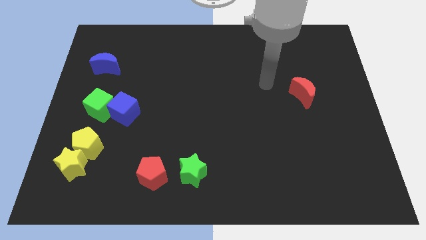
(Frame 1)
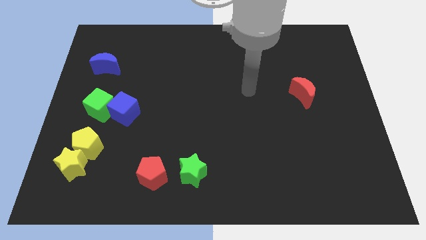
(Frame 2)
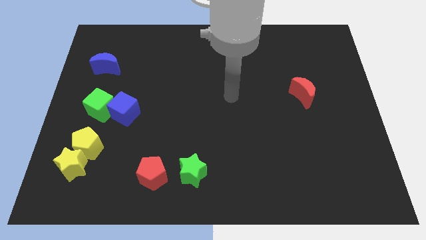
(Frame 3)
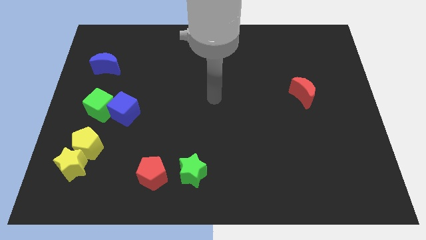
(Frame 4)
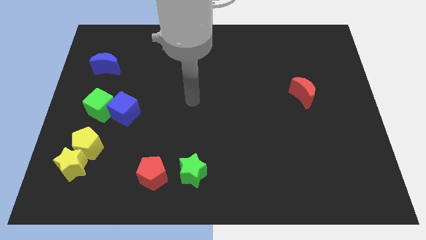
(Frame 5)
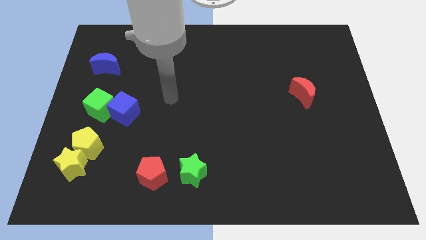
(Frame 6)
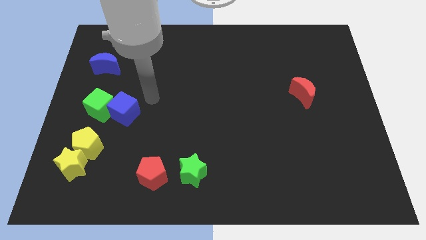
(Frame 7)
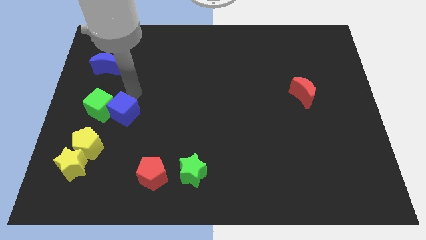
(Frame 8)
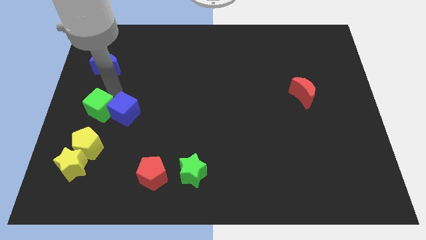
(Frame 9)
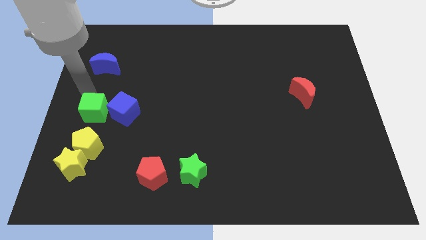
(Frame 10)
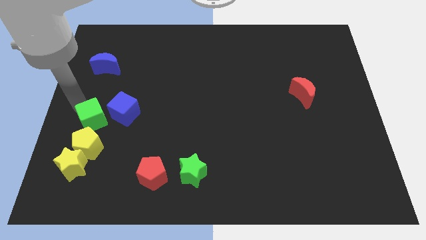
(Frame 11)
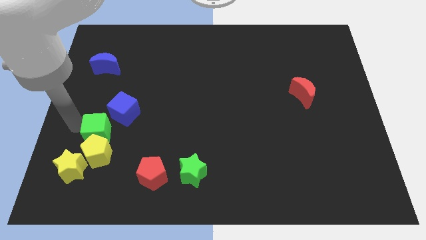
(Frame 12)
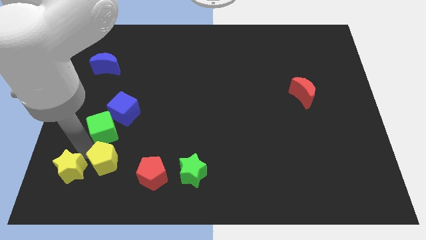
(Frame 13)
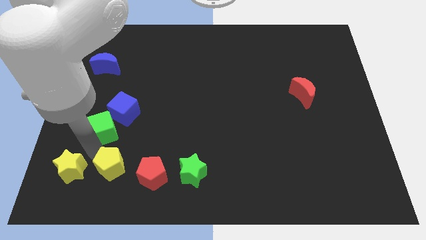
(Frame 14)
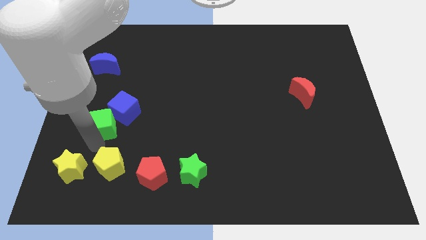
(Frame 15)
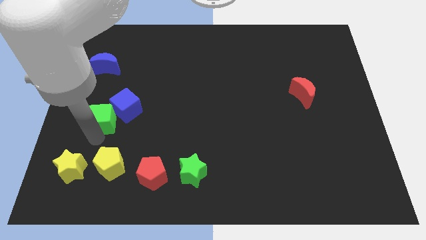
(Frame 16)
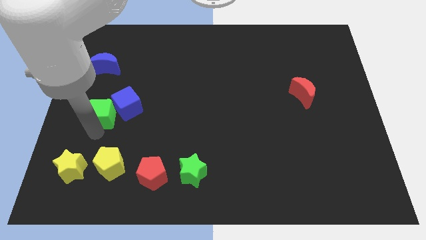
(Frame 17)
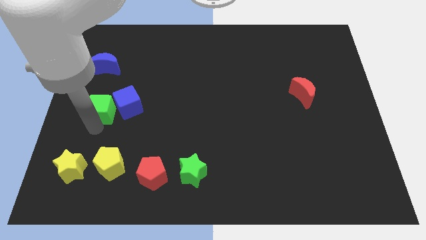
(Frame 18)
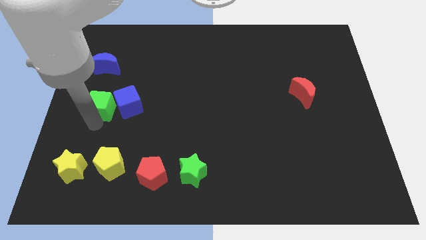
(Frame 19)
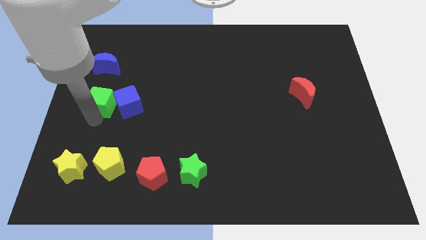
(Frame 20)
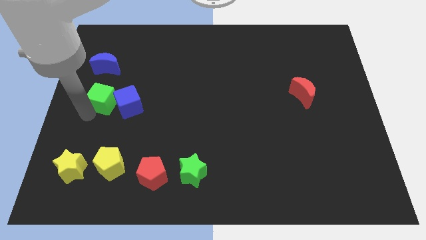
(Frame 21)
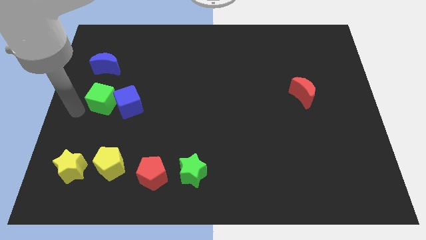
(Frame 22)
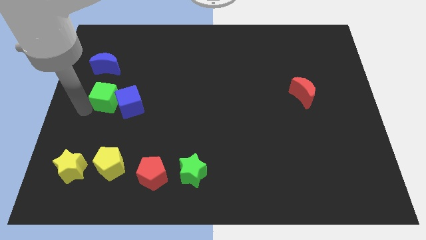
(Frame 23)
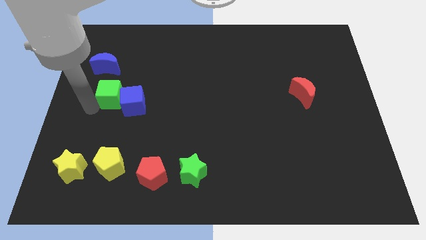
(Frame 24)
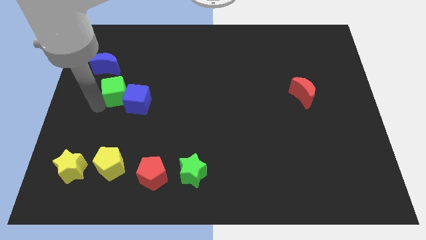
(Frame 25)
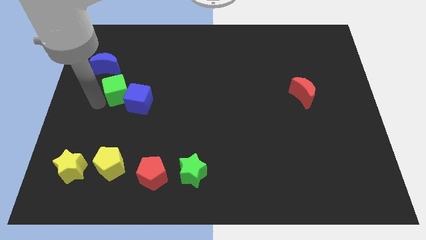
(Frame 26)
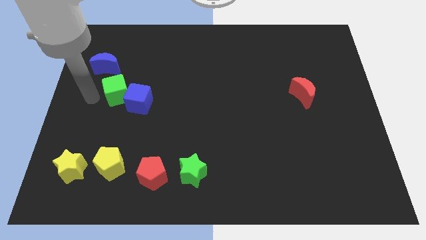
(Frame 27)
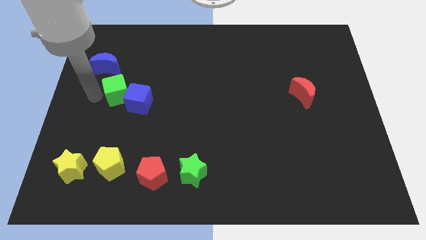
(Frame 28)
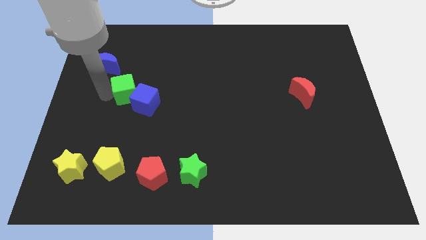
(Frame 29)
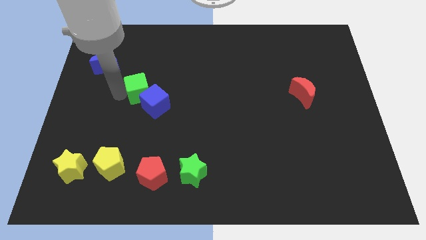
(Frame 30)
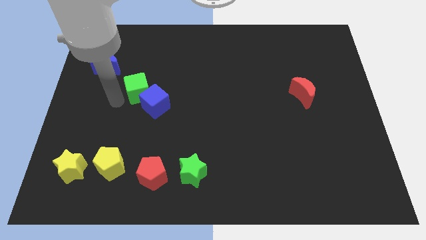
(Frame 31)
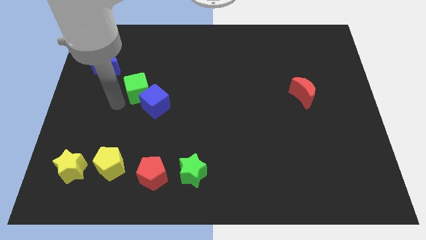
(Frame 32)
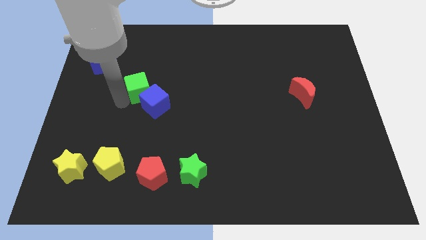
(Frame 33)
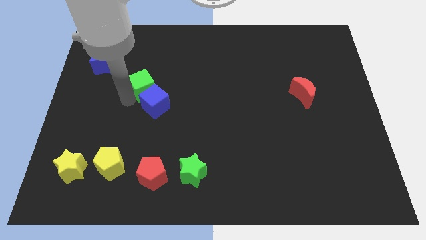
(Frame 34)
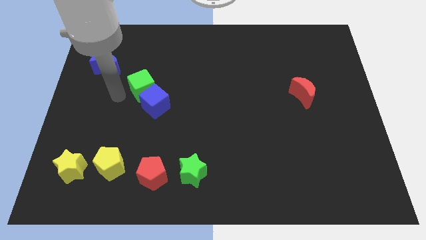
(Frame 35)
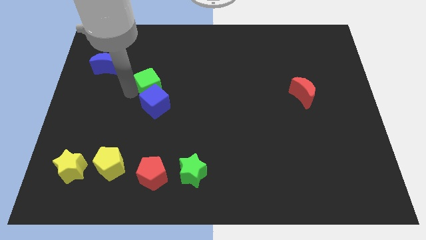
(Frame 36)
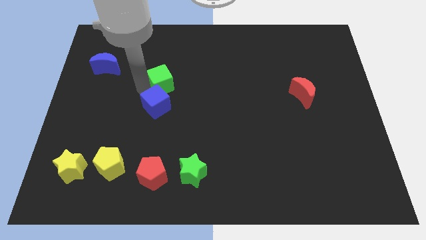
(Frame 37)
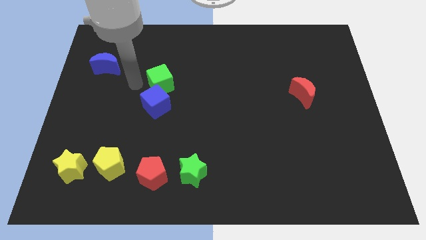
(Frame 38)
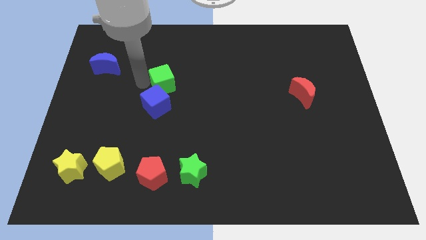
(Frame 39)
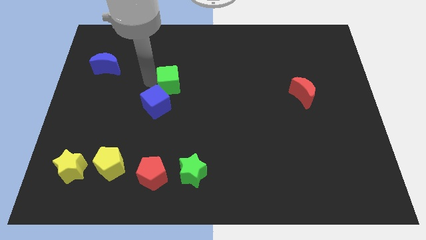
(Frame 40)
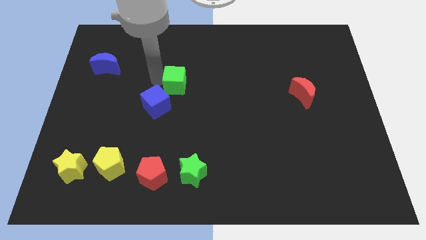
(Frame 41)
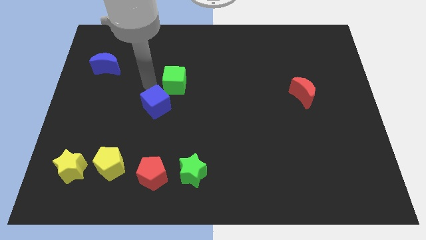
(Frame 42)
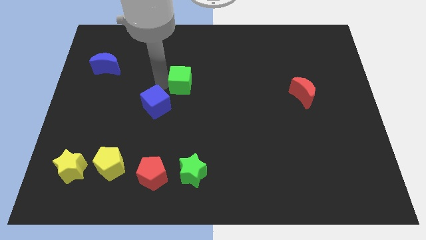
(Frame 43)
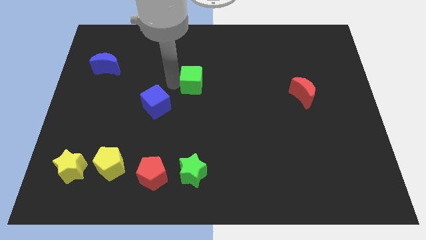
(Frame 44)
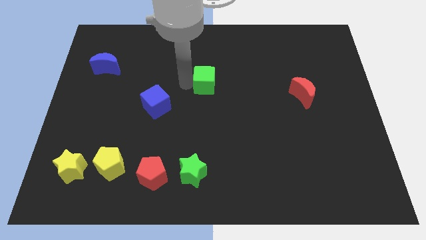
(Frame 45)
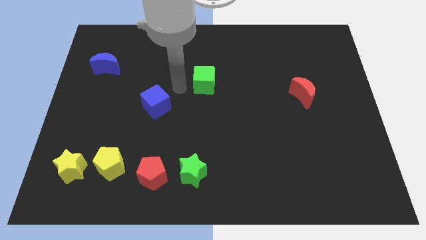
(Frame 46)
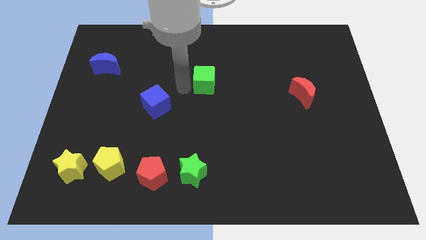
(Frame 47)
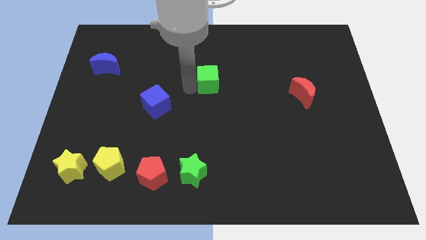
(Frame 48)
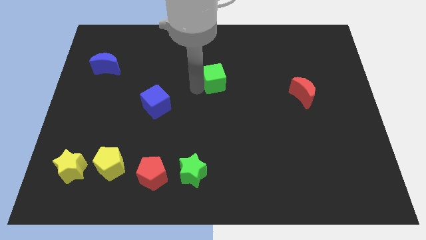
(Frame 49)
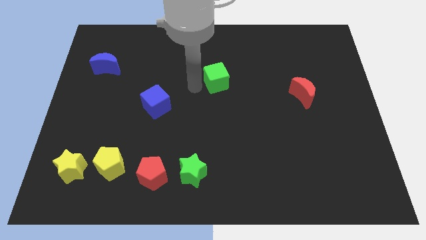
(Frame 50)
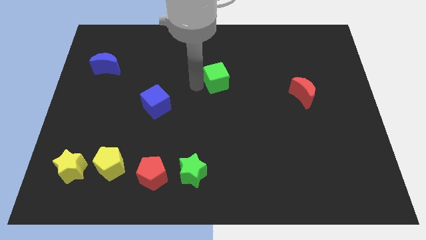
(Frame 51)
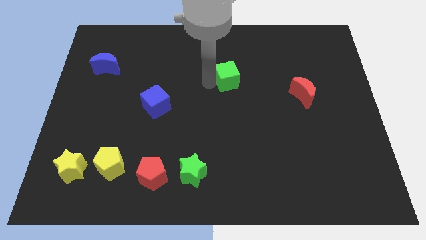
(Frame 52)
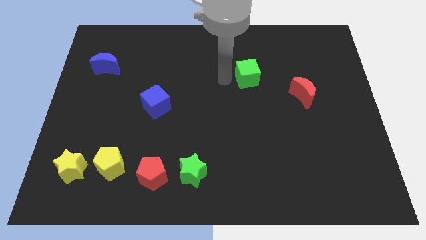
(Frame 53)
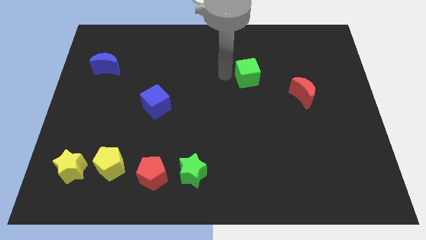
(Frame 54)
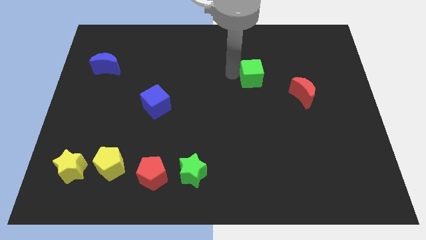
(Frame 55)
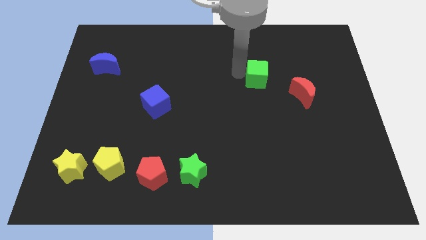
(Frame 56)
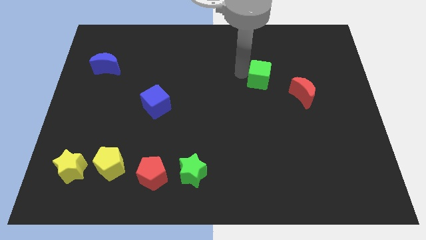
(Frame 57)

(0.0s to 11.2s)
move the green cube to the top left side of the red moon

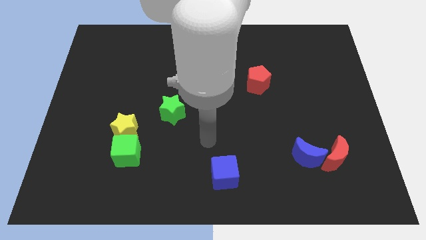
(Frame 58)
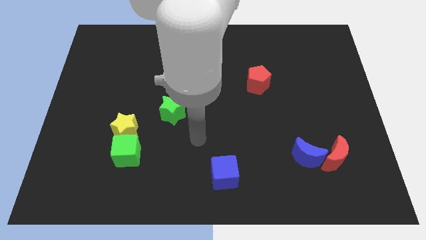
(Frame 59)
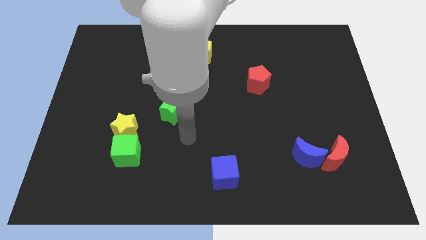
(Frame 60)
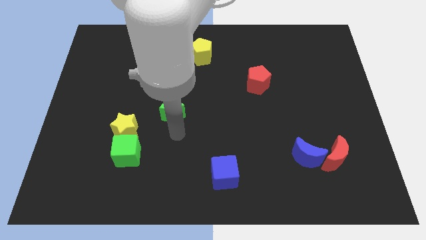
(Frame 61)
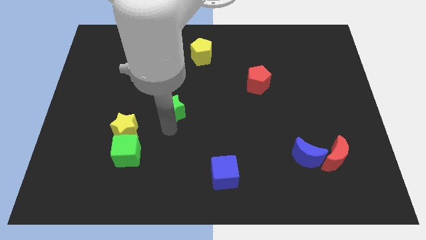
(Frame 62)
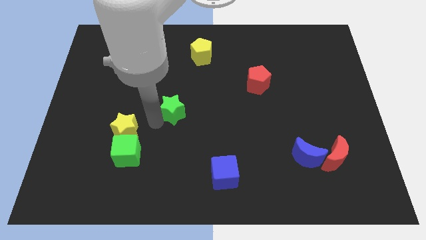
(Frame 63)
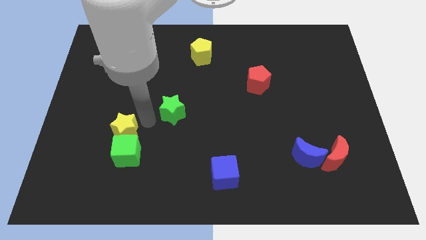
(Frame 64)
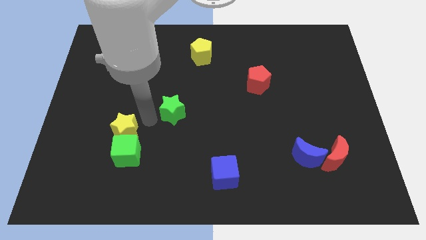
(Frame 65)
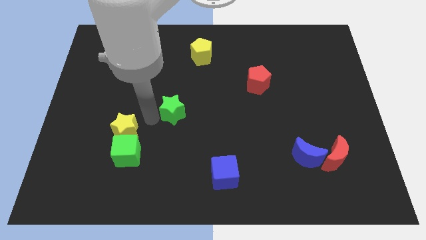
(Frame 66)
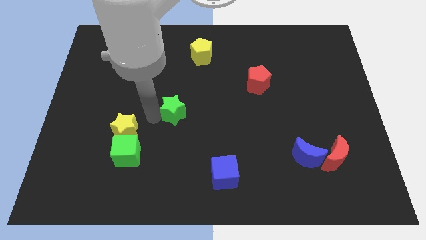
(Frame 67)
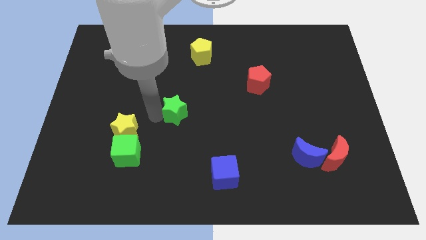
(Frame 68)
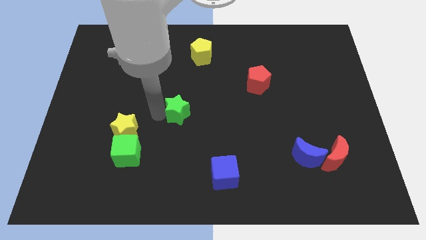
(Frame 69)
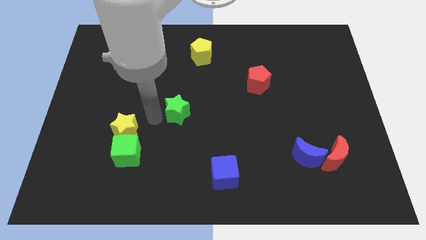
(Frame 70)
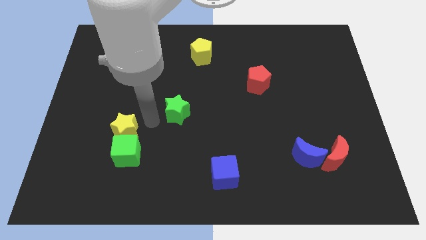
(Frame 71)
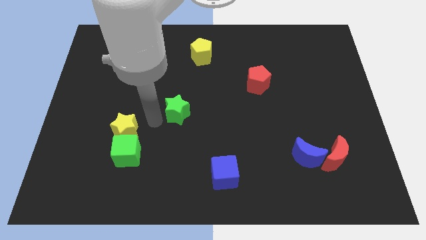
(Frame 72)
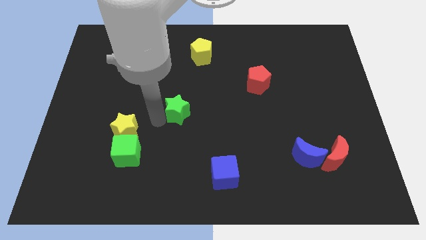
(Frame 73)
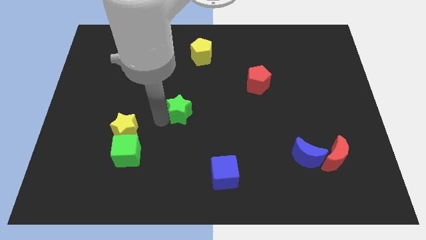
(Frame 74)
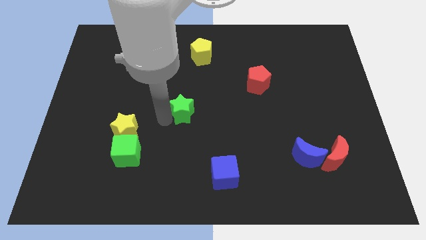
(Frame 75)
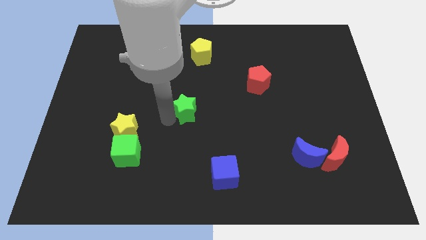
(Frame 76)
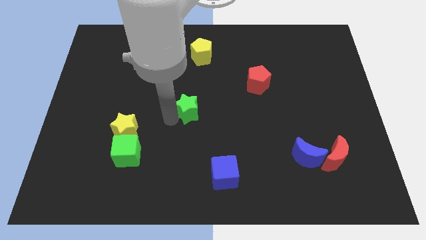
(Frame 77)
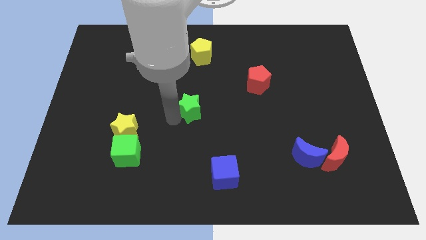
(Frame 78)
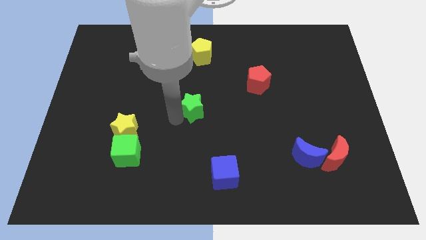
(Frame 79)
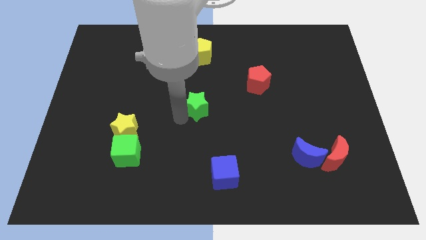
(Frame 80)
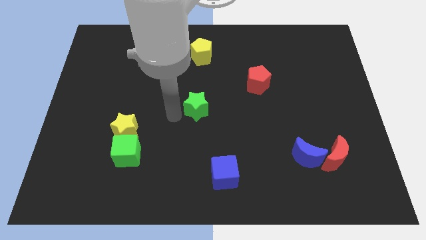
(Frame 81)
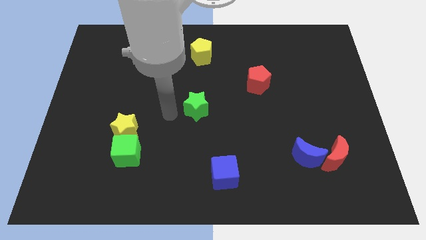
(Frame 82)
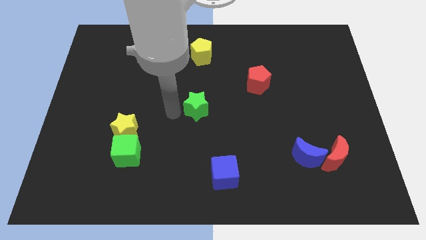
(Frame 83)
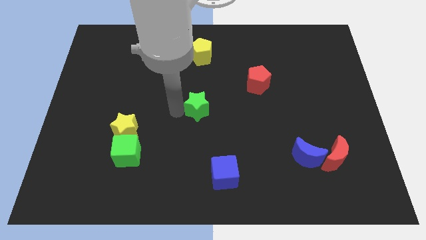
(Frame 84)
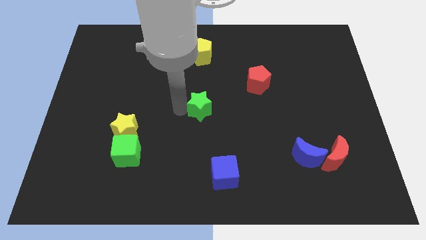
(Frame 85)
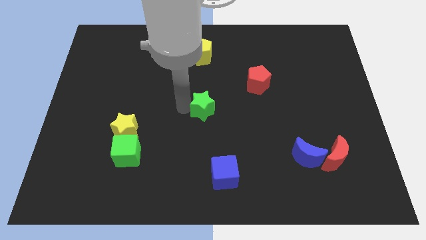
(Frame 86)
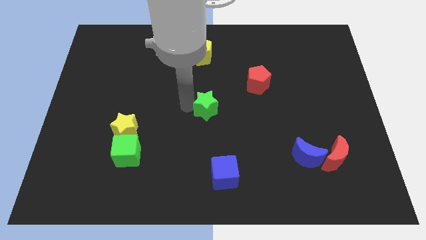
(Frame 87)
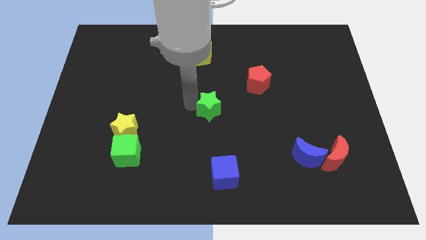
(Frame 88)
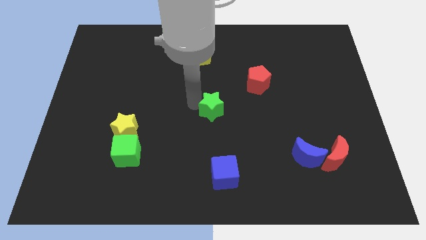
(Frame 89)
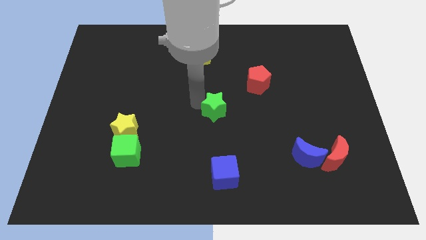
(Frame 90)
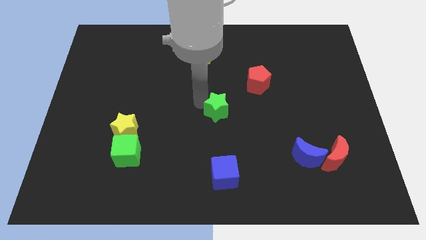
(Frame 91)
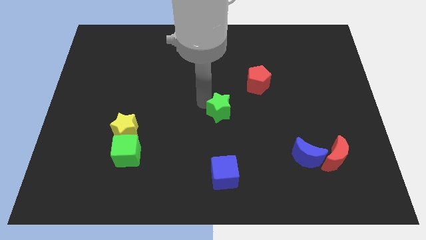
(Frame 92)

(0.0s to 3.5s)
put the green star to the bottom left side of the red pentagon
